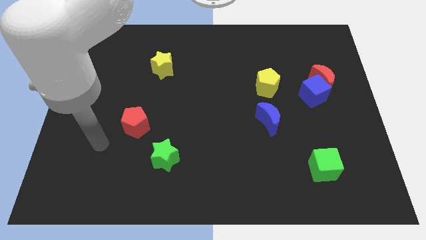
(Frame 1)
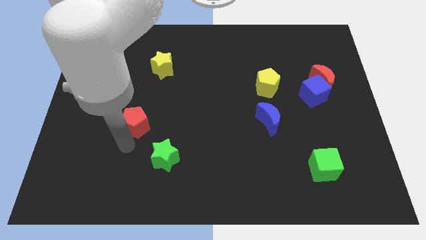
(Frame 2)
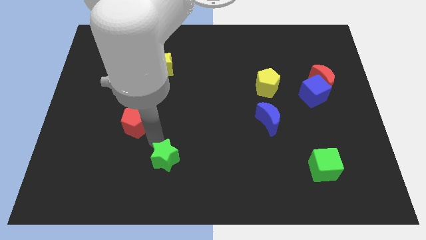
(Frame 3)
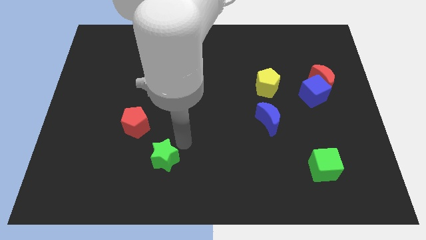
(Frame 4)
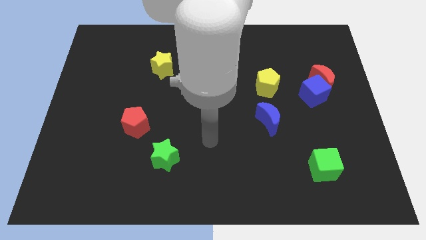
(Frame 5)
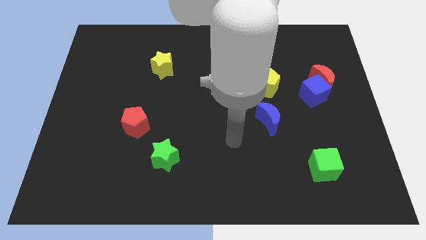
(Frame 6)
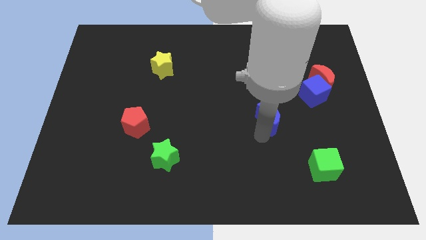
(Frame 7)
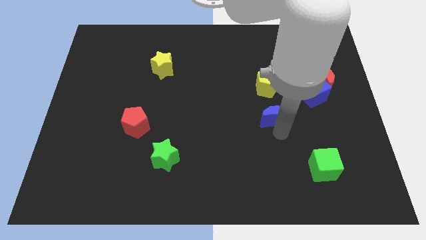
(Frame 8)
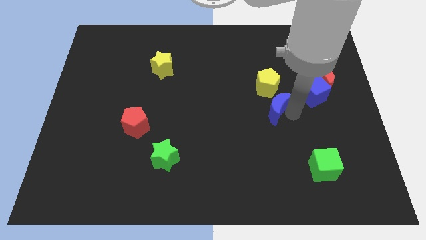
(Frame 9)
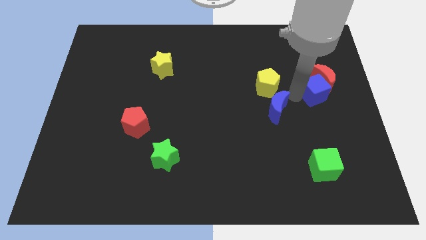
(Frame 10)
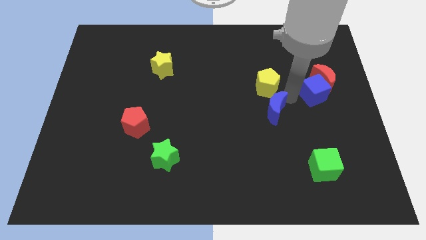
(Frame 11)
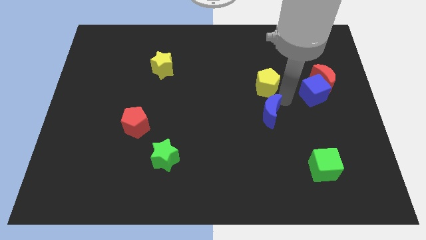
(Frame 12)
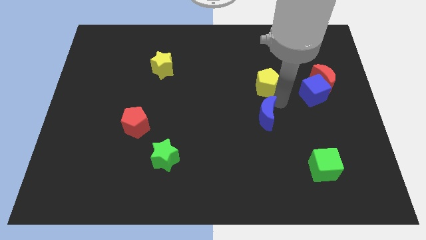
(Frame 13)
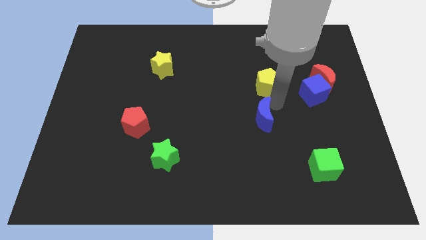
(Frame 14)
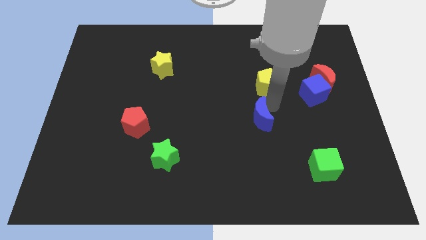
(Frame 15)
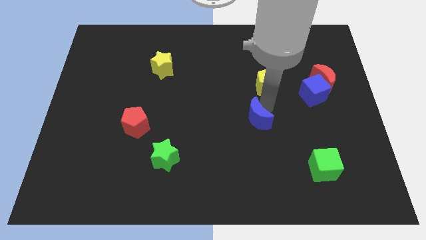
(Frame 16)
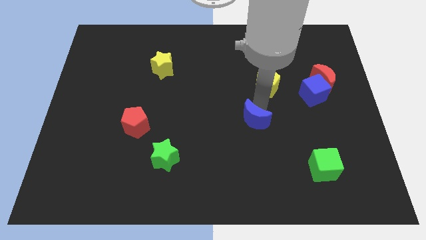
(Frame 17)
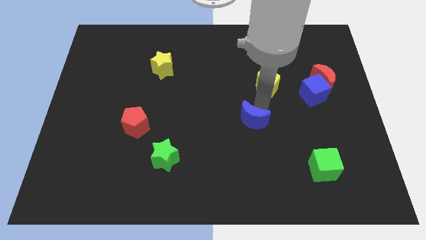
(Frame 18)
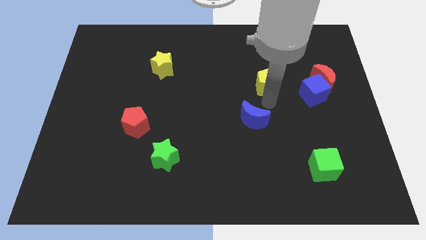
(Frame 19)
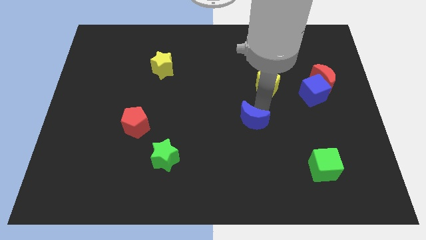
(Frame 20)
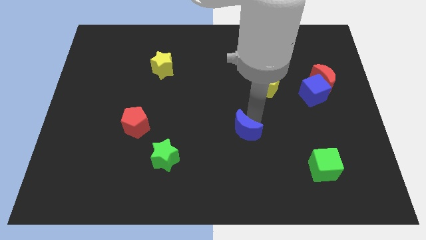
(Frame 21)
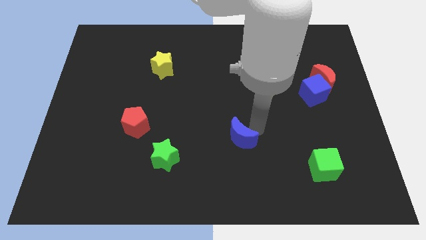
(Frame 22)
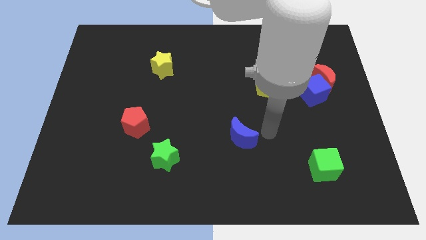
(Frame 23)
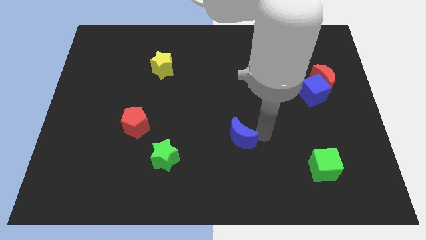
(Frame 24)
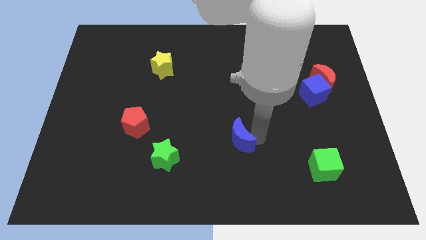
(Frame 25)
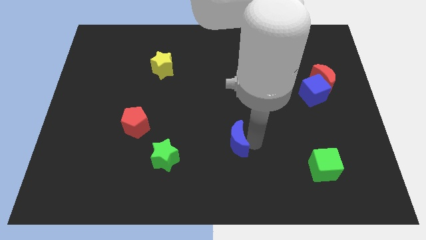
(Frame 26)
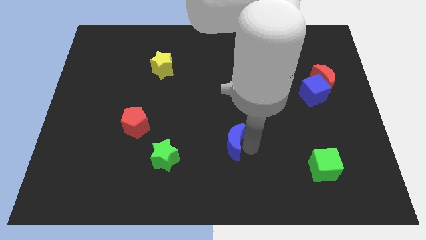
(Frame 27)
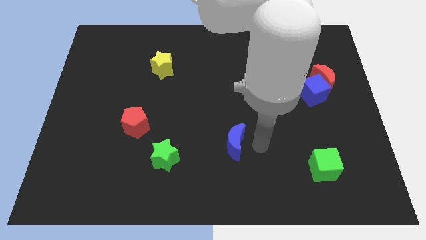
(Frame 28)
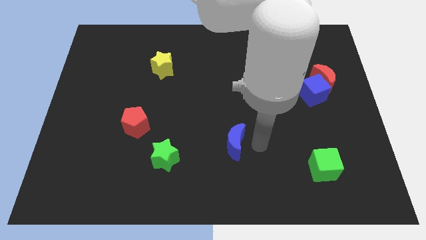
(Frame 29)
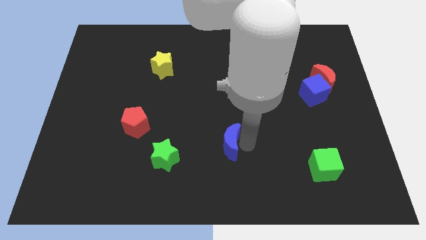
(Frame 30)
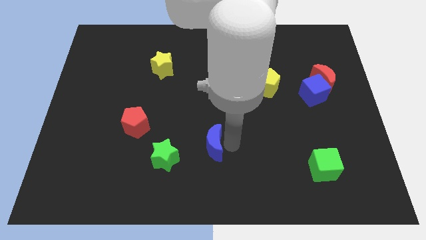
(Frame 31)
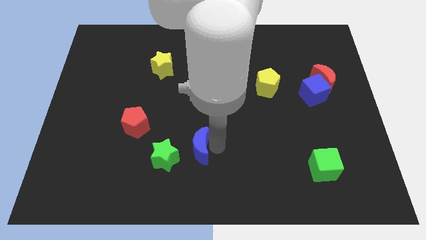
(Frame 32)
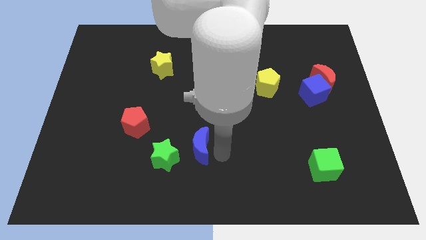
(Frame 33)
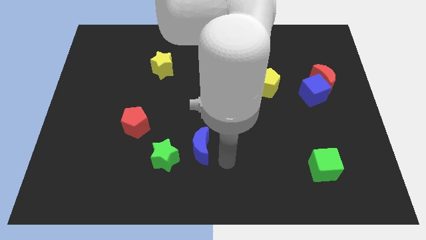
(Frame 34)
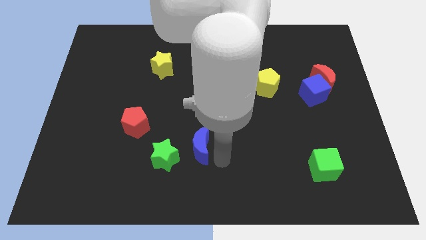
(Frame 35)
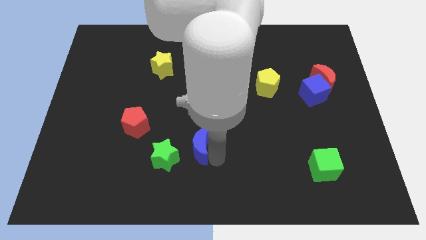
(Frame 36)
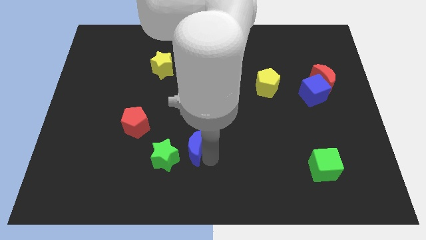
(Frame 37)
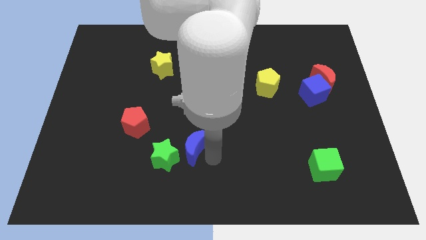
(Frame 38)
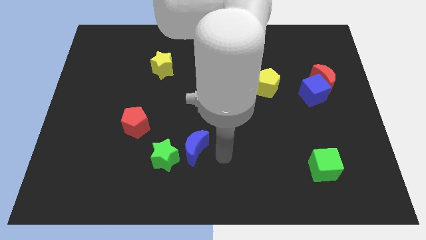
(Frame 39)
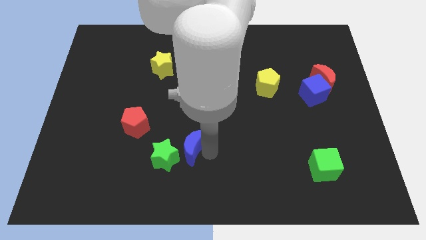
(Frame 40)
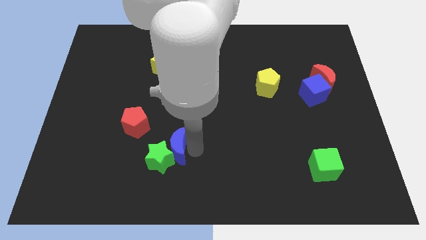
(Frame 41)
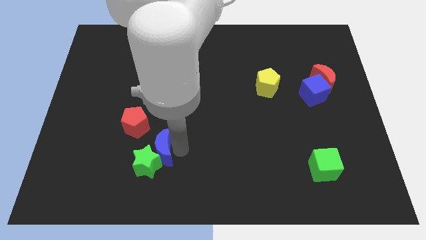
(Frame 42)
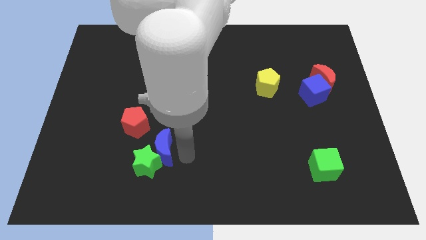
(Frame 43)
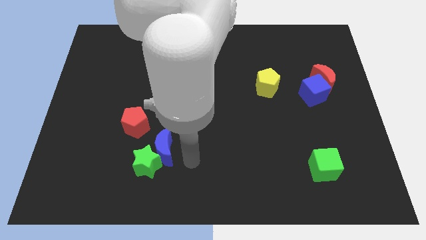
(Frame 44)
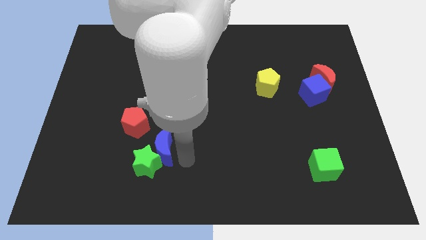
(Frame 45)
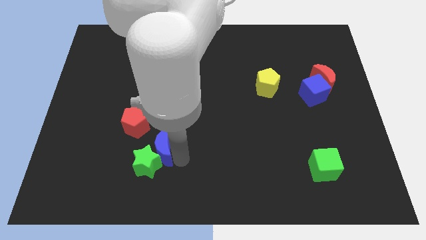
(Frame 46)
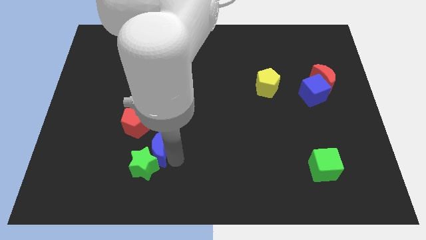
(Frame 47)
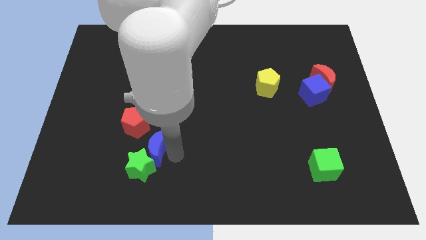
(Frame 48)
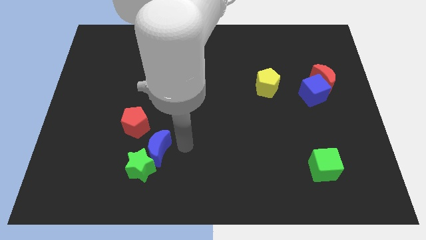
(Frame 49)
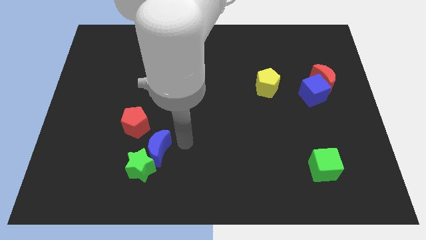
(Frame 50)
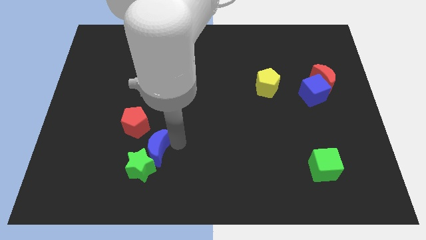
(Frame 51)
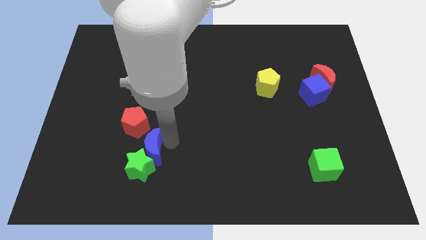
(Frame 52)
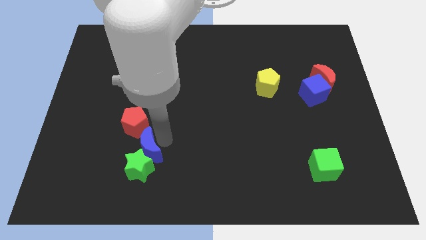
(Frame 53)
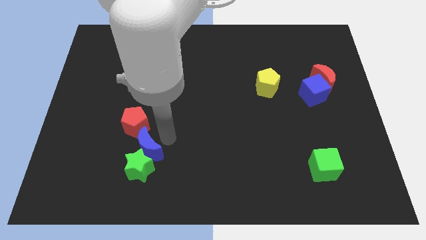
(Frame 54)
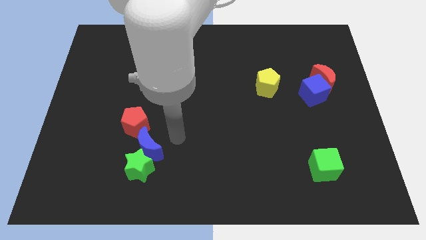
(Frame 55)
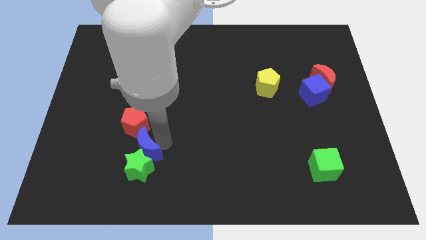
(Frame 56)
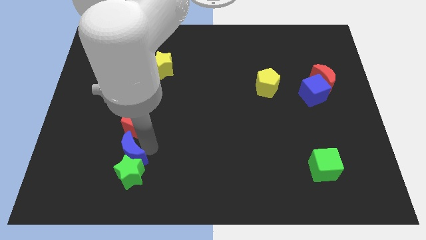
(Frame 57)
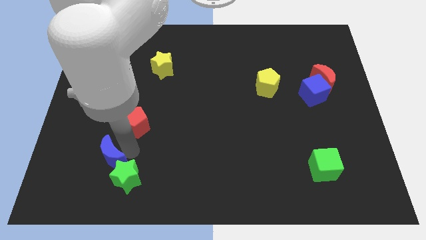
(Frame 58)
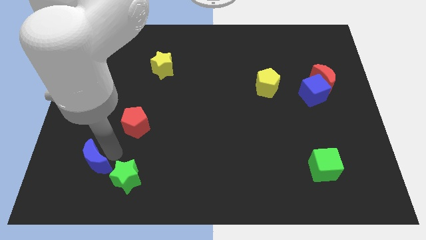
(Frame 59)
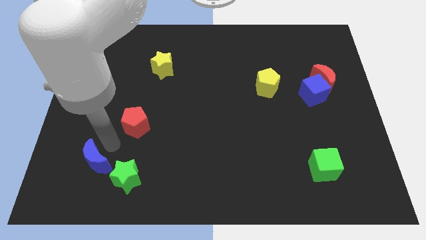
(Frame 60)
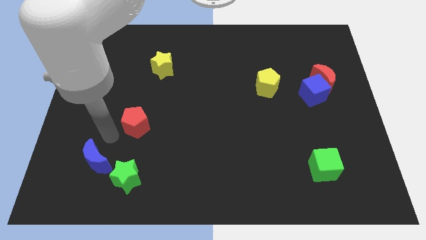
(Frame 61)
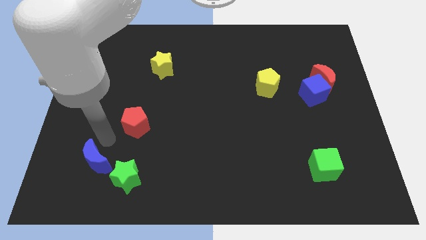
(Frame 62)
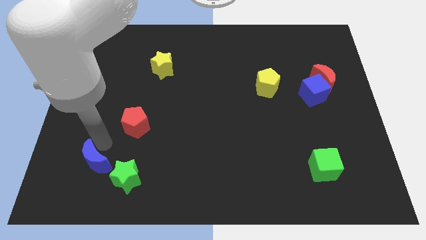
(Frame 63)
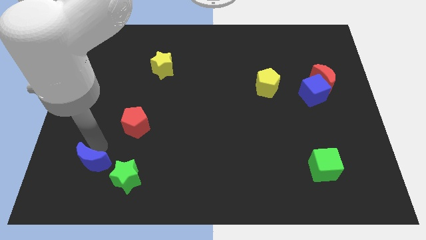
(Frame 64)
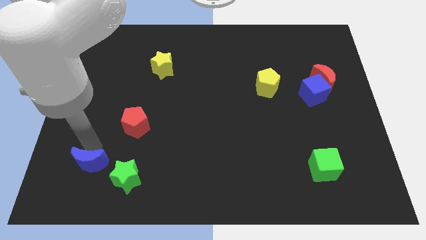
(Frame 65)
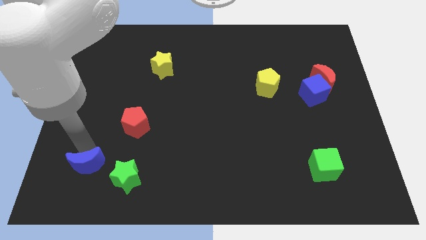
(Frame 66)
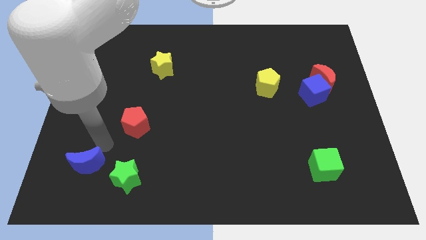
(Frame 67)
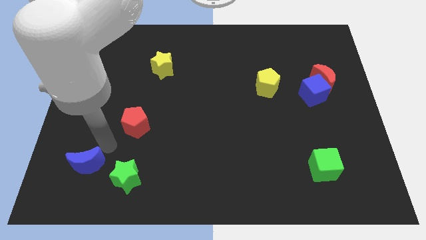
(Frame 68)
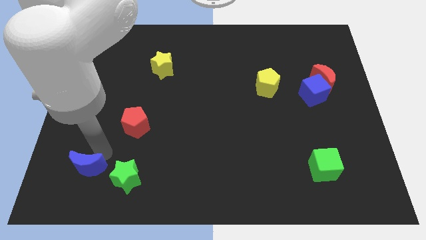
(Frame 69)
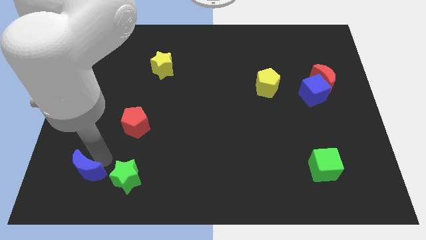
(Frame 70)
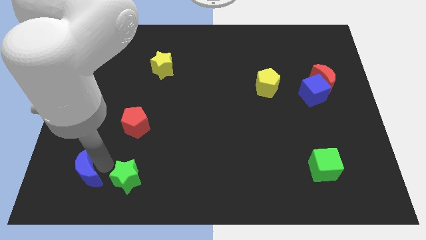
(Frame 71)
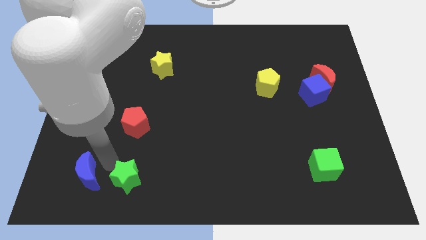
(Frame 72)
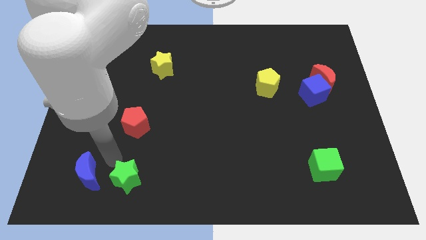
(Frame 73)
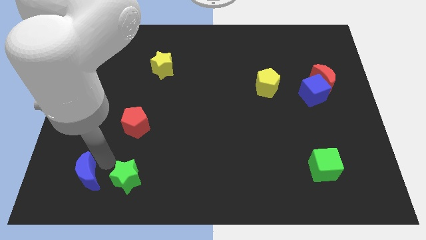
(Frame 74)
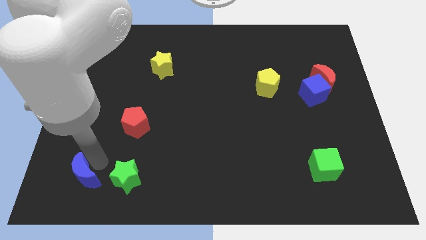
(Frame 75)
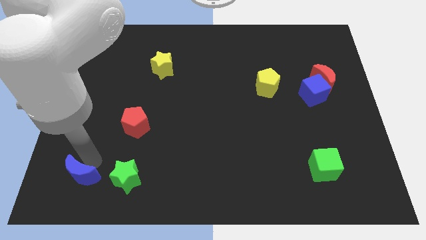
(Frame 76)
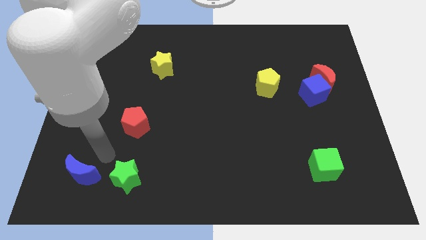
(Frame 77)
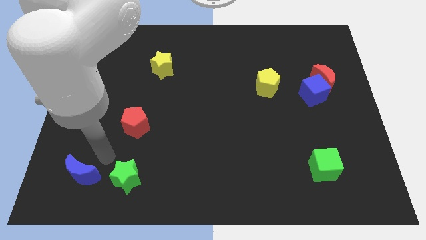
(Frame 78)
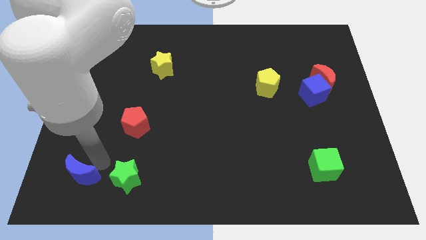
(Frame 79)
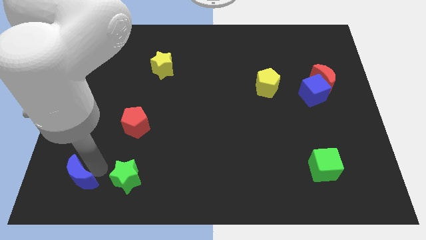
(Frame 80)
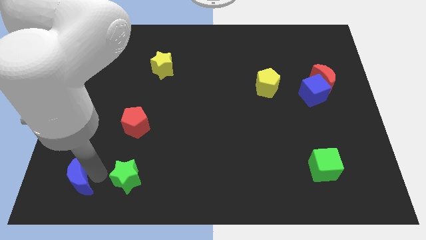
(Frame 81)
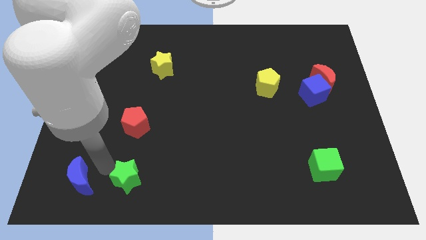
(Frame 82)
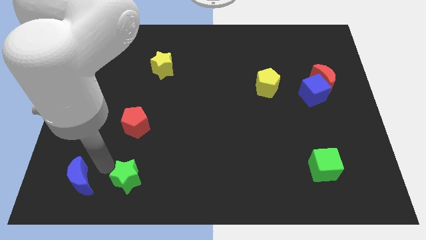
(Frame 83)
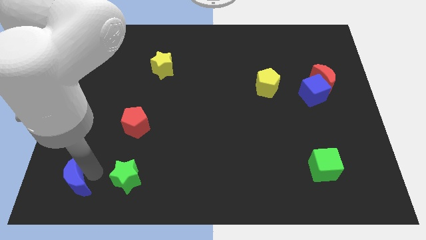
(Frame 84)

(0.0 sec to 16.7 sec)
slide the blue moon to the bottom left of the board
